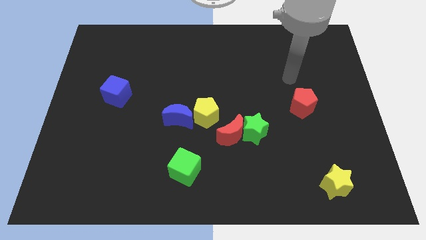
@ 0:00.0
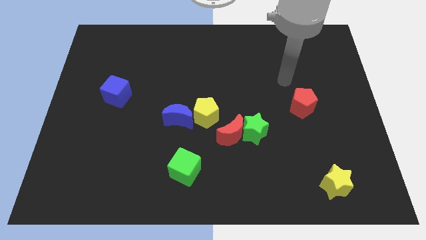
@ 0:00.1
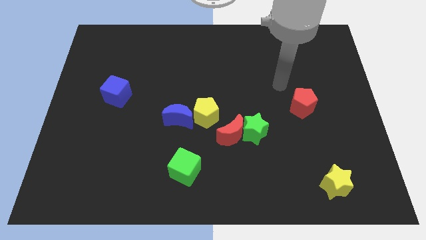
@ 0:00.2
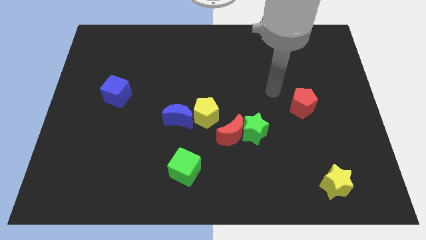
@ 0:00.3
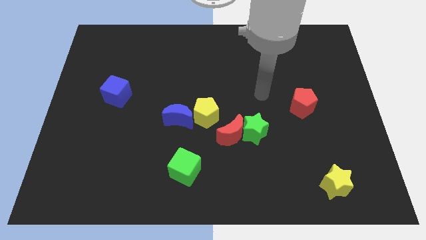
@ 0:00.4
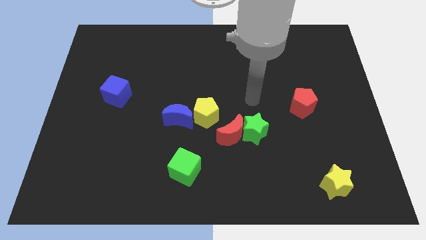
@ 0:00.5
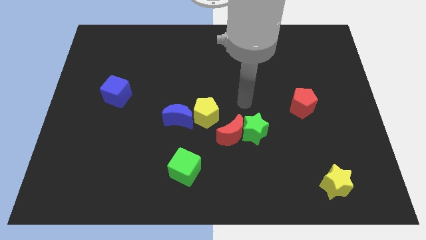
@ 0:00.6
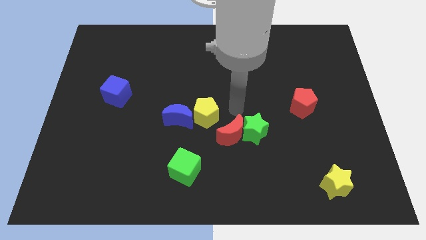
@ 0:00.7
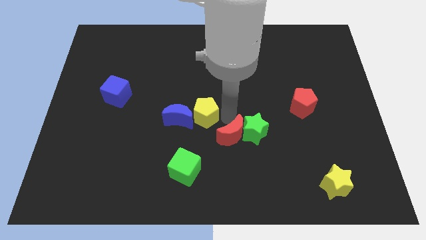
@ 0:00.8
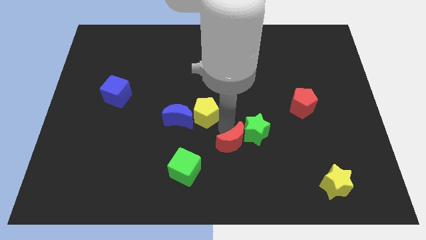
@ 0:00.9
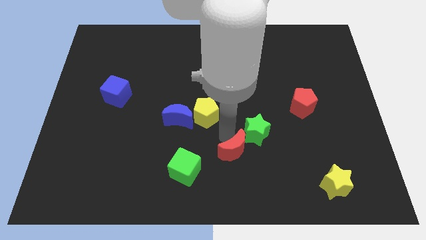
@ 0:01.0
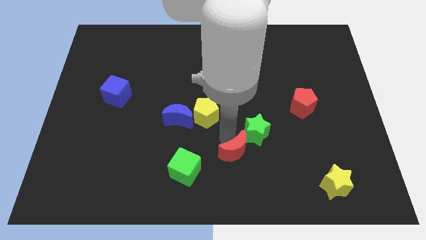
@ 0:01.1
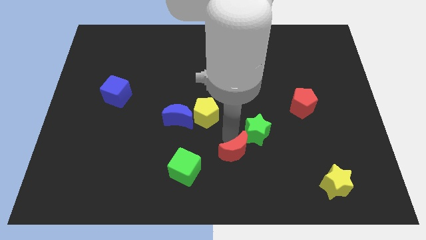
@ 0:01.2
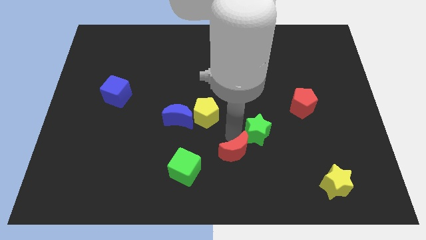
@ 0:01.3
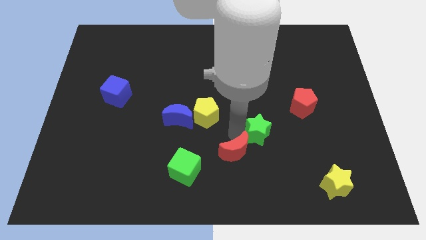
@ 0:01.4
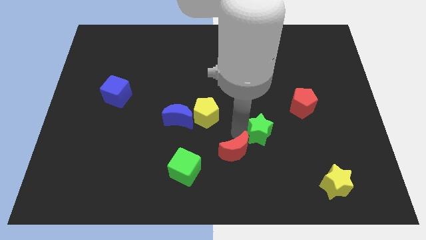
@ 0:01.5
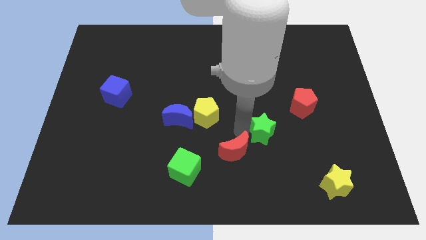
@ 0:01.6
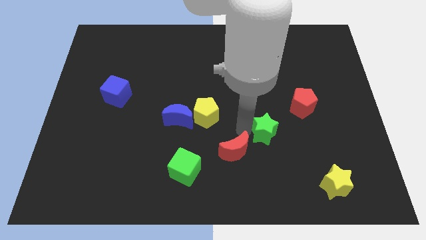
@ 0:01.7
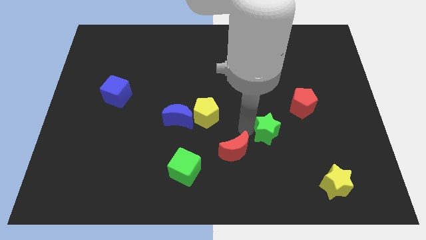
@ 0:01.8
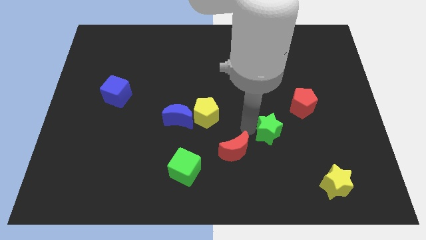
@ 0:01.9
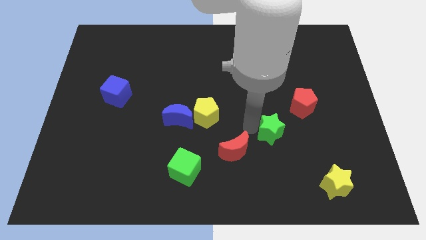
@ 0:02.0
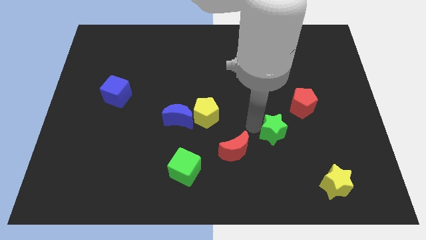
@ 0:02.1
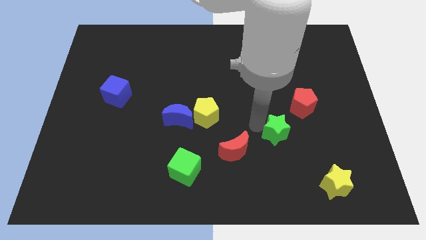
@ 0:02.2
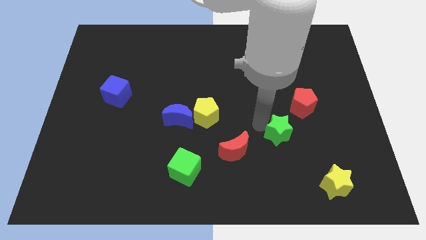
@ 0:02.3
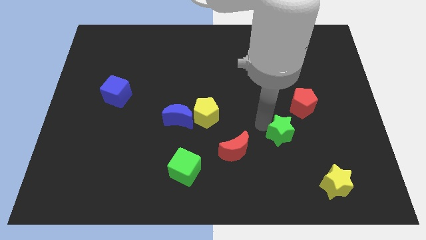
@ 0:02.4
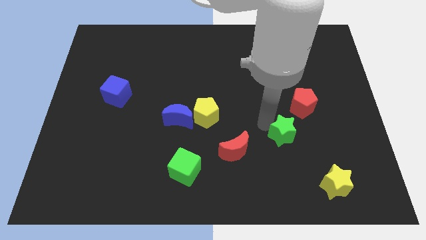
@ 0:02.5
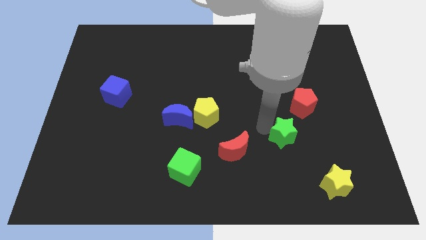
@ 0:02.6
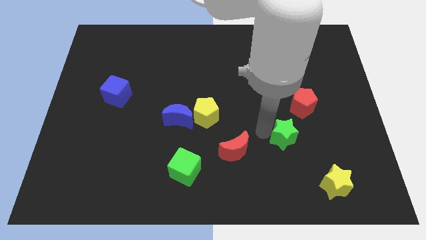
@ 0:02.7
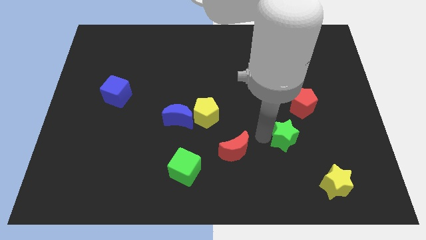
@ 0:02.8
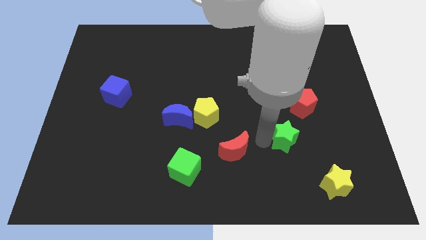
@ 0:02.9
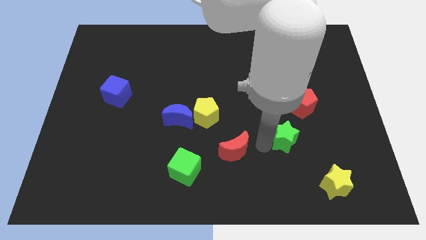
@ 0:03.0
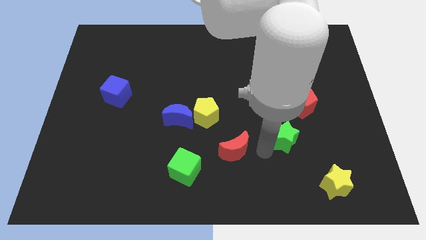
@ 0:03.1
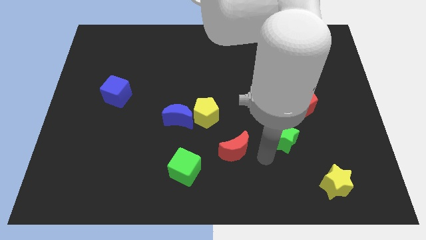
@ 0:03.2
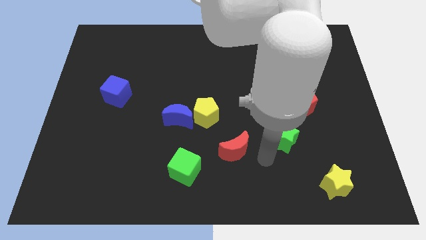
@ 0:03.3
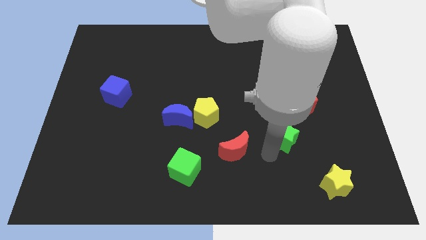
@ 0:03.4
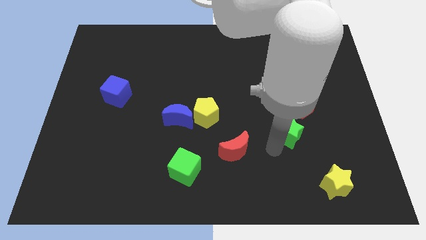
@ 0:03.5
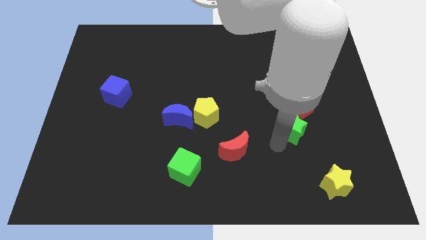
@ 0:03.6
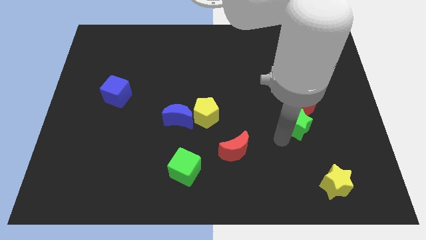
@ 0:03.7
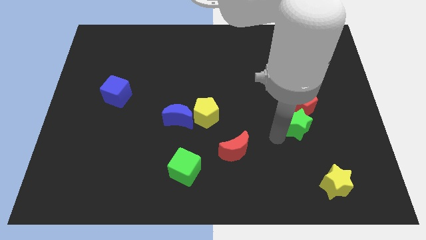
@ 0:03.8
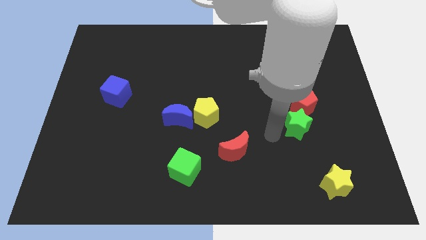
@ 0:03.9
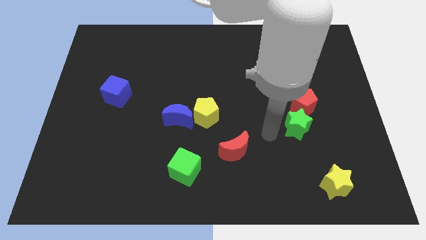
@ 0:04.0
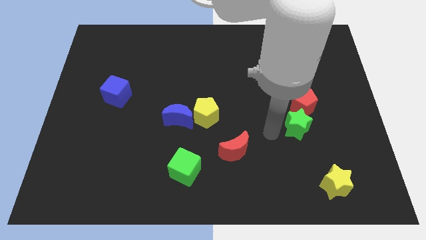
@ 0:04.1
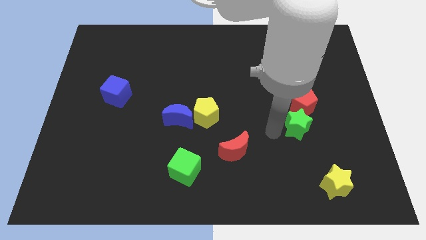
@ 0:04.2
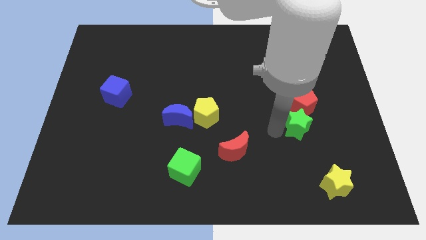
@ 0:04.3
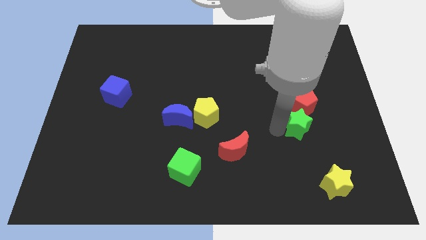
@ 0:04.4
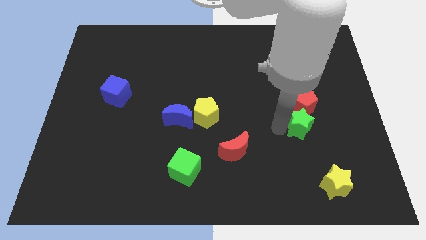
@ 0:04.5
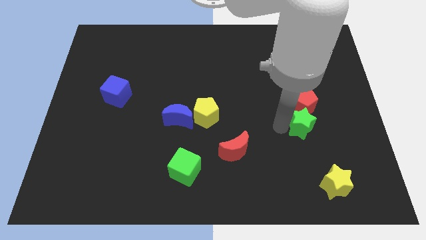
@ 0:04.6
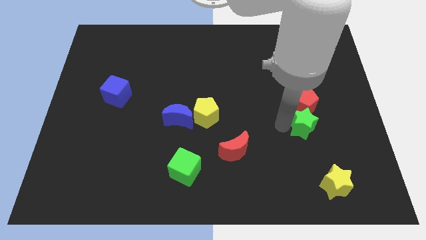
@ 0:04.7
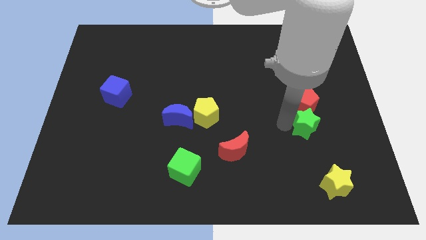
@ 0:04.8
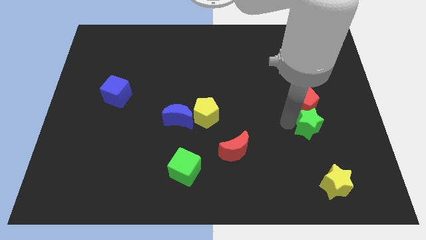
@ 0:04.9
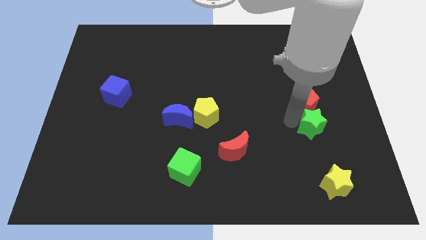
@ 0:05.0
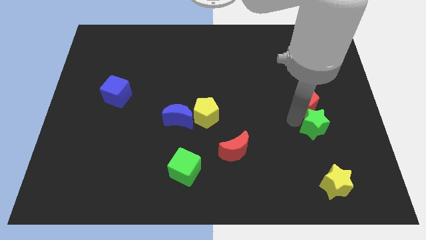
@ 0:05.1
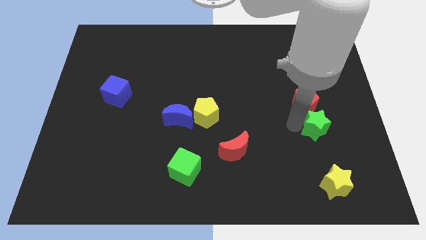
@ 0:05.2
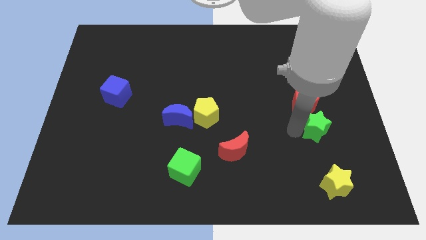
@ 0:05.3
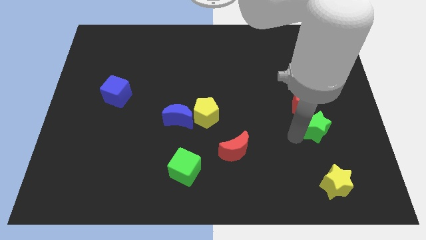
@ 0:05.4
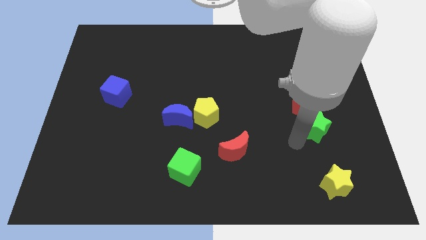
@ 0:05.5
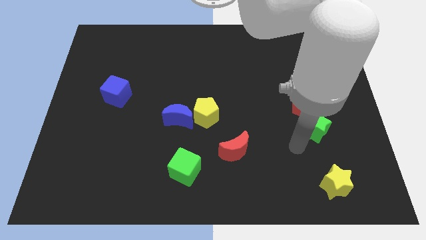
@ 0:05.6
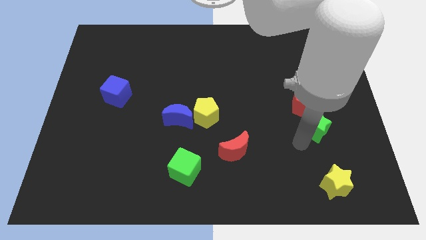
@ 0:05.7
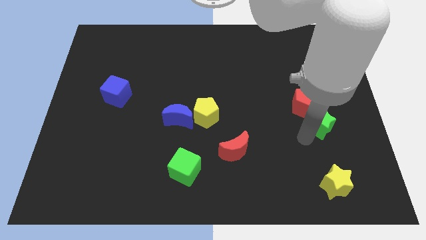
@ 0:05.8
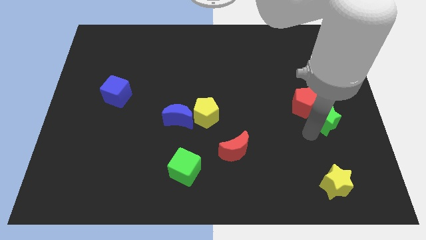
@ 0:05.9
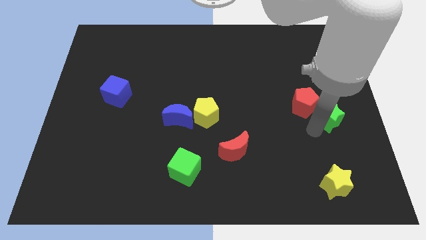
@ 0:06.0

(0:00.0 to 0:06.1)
push the green star to the center right
